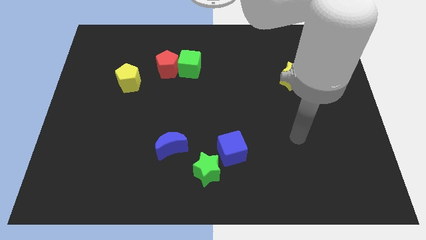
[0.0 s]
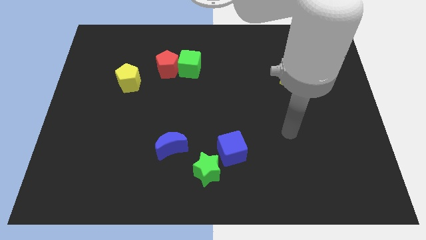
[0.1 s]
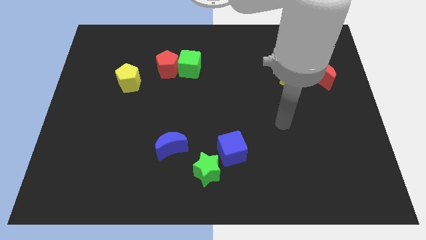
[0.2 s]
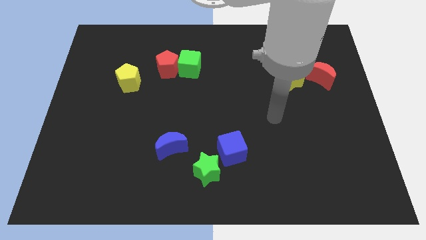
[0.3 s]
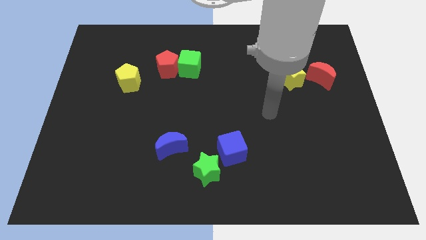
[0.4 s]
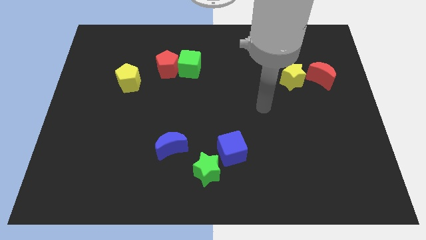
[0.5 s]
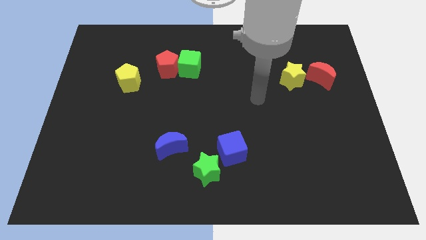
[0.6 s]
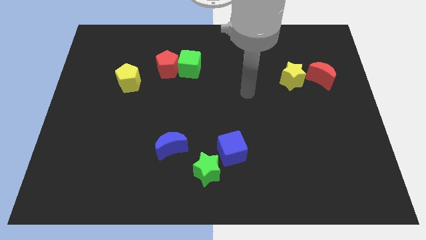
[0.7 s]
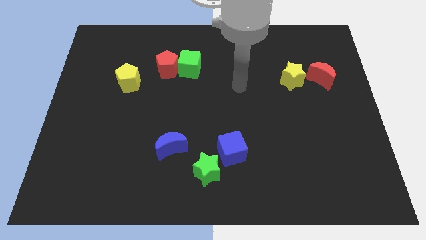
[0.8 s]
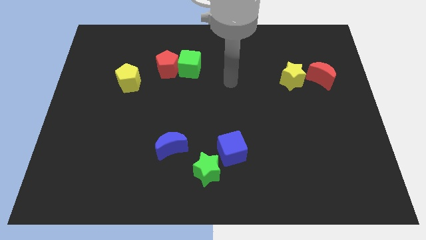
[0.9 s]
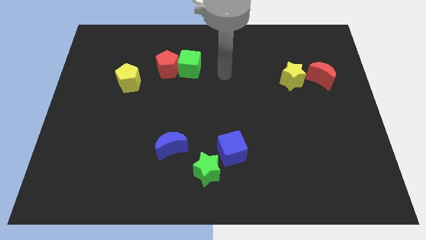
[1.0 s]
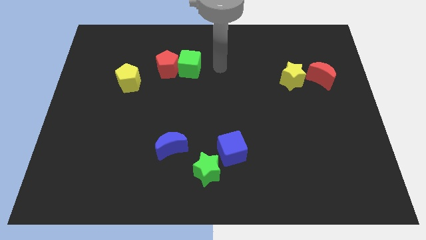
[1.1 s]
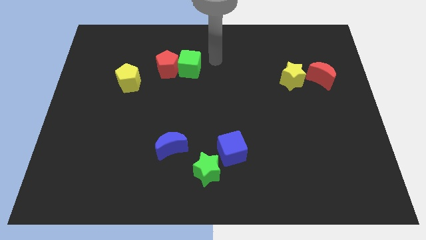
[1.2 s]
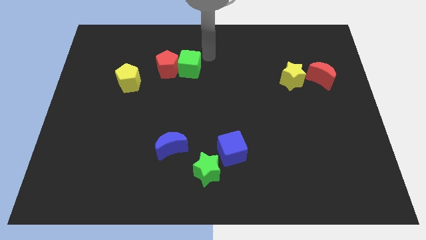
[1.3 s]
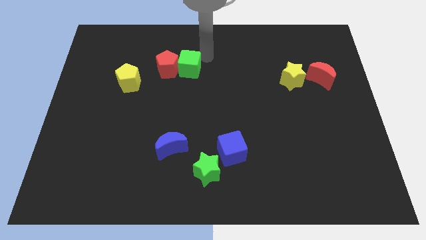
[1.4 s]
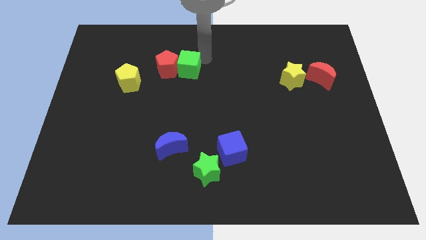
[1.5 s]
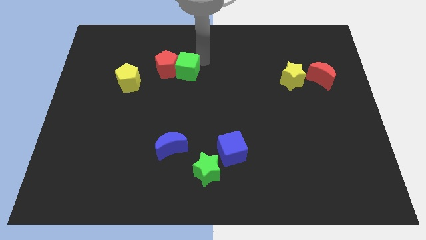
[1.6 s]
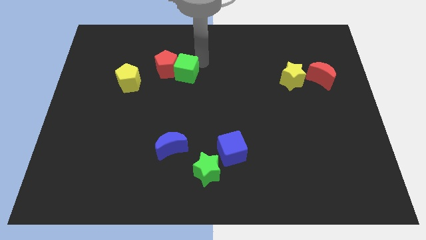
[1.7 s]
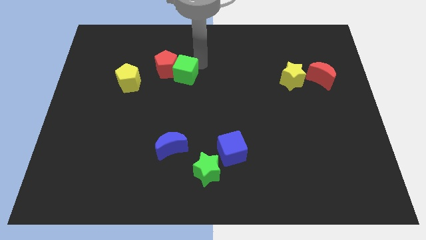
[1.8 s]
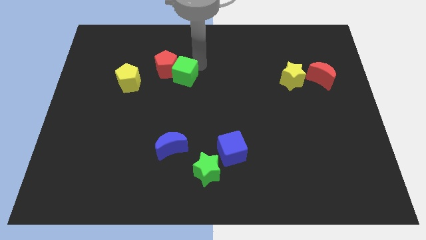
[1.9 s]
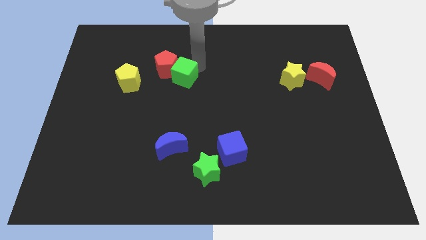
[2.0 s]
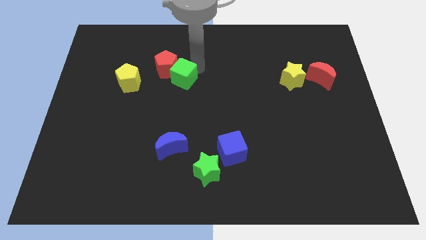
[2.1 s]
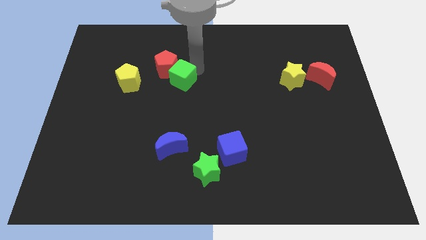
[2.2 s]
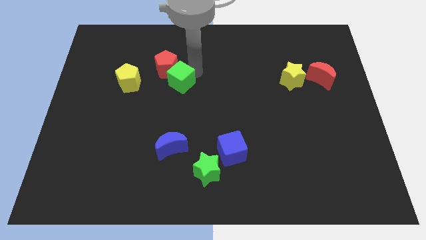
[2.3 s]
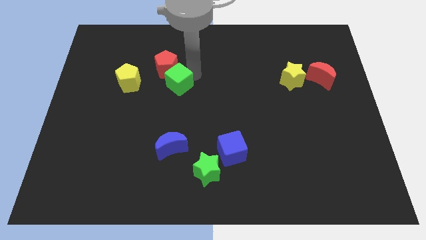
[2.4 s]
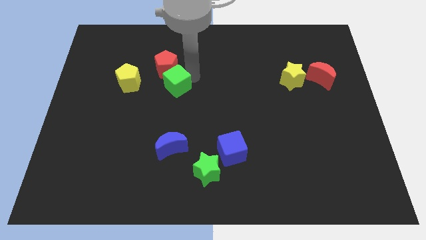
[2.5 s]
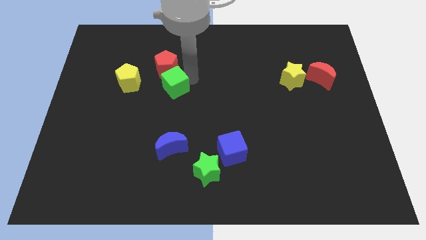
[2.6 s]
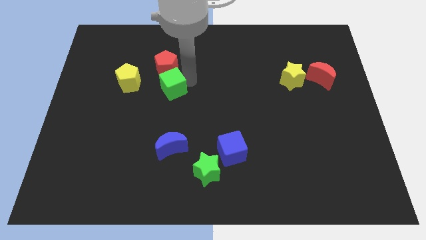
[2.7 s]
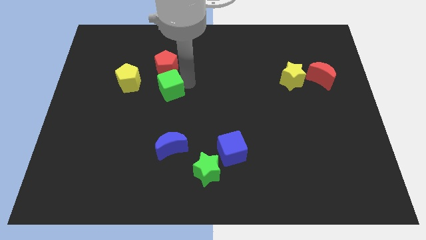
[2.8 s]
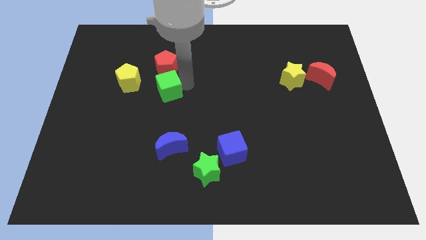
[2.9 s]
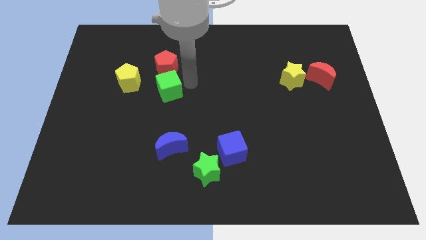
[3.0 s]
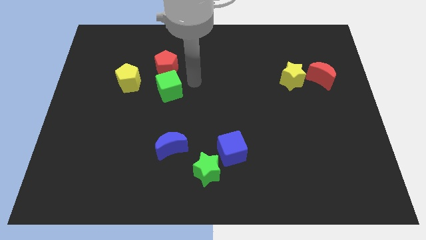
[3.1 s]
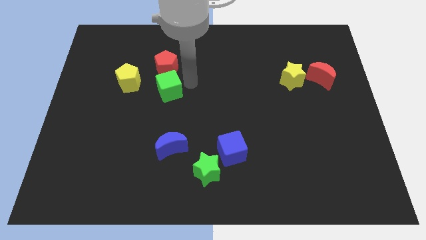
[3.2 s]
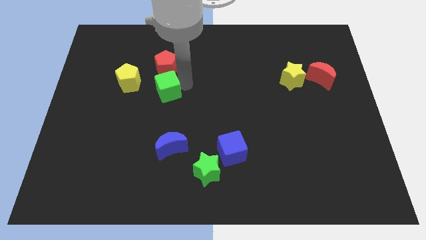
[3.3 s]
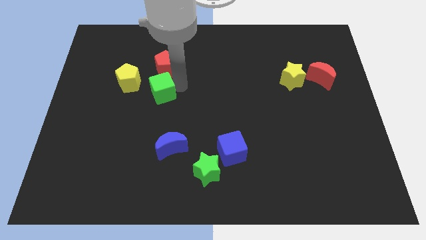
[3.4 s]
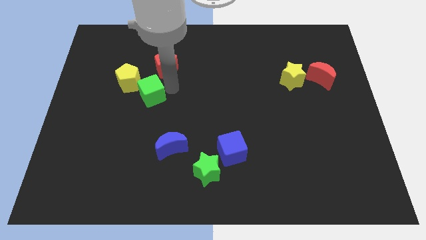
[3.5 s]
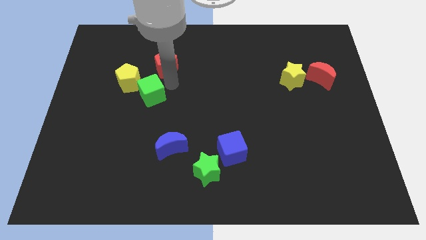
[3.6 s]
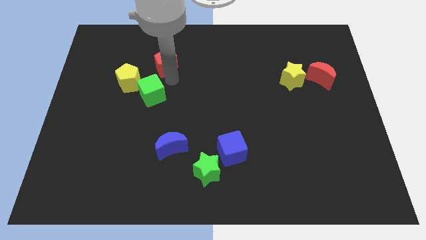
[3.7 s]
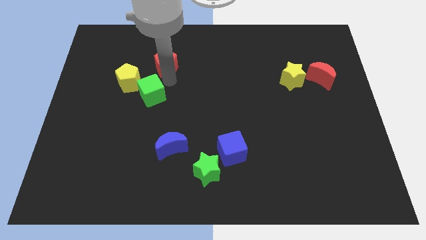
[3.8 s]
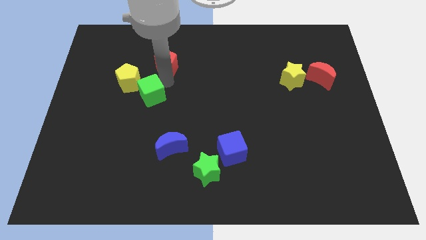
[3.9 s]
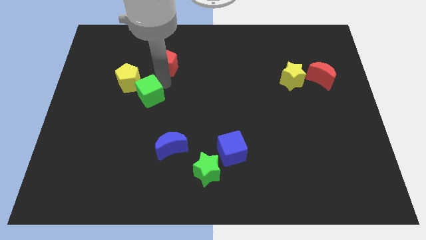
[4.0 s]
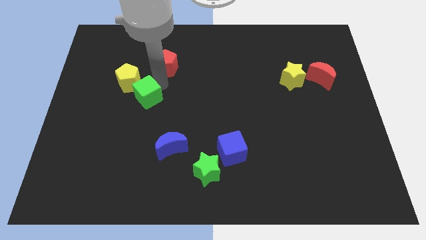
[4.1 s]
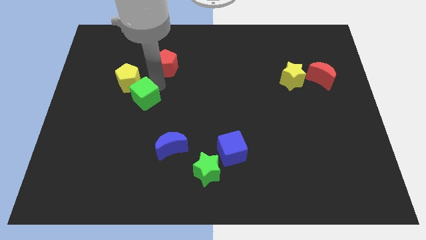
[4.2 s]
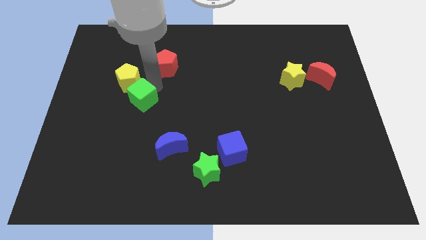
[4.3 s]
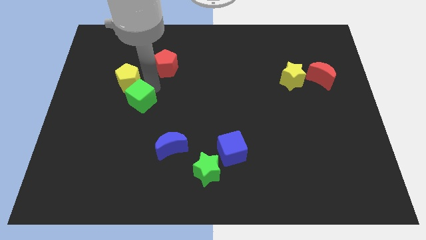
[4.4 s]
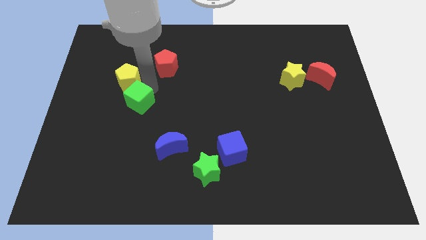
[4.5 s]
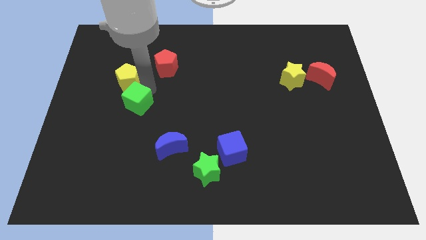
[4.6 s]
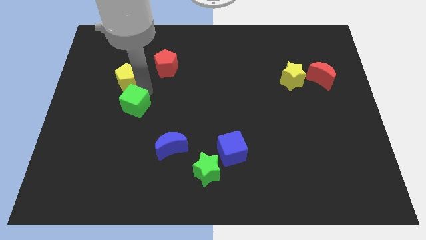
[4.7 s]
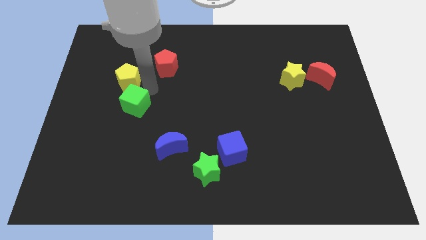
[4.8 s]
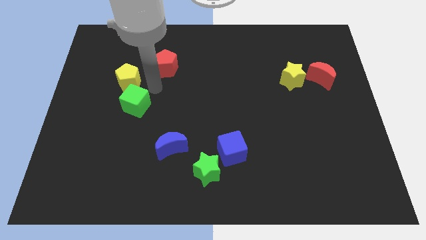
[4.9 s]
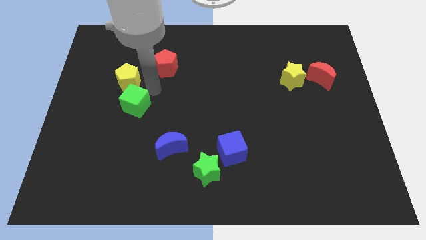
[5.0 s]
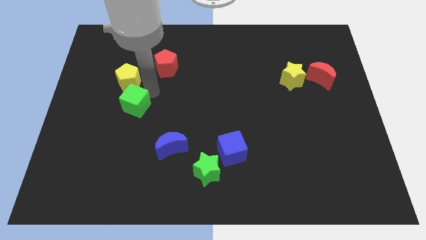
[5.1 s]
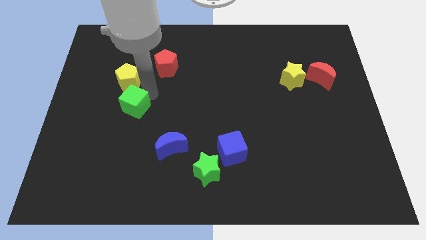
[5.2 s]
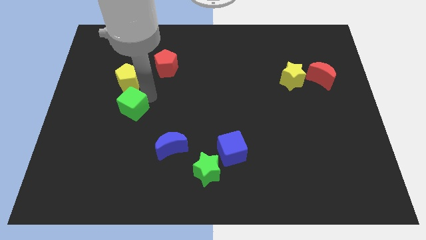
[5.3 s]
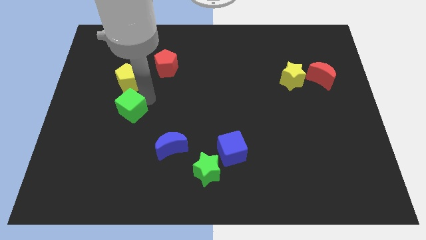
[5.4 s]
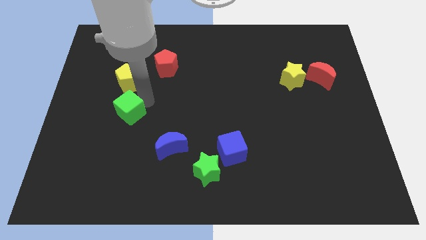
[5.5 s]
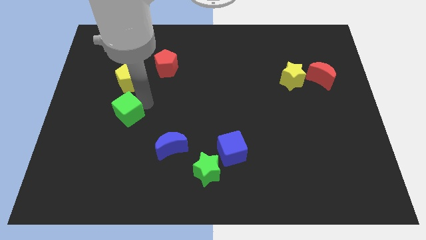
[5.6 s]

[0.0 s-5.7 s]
push the green cube down and to the left diagonally

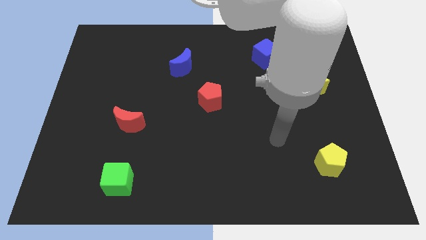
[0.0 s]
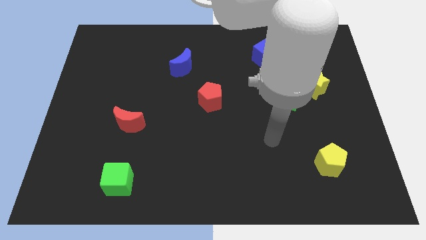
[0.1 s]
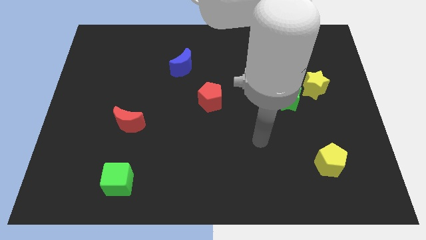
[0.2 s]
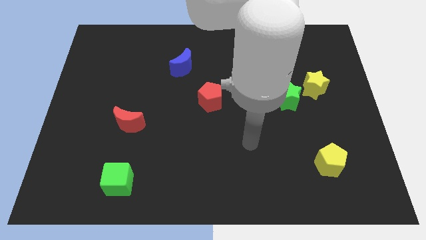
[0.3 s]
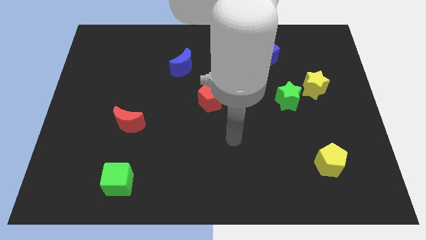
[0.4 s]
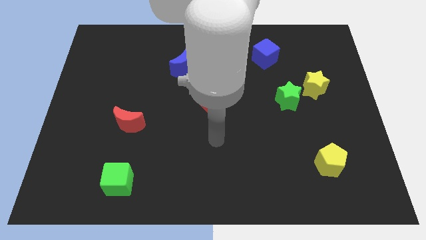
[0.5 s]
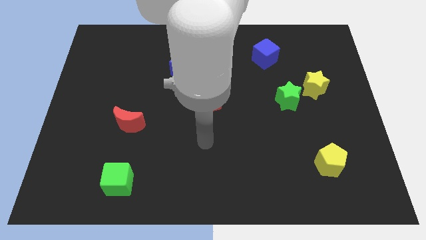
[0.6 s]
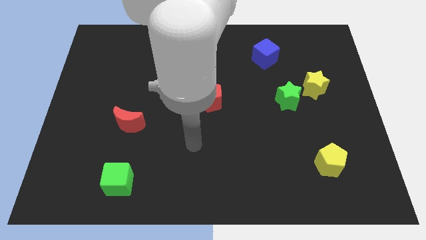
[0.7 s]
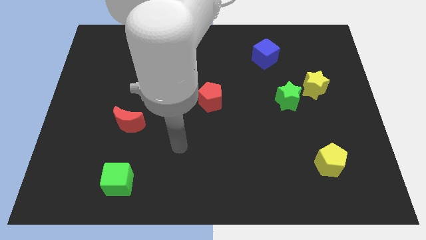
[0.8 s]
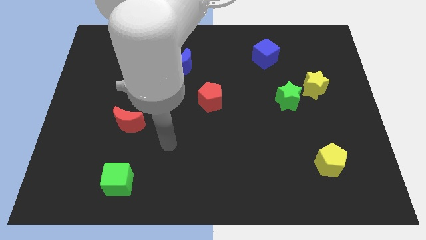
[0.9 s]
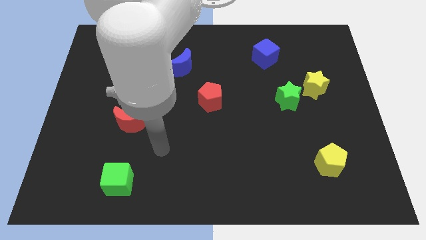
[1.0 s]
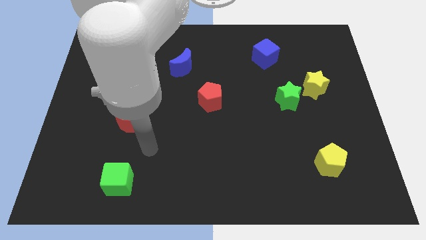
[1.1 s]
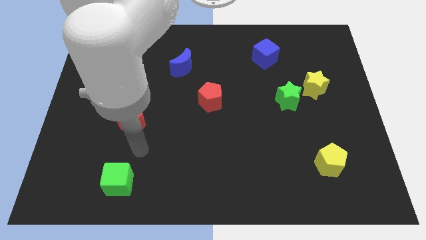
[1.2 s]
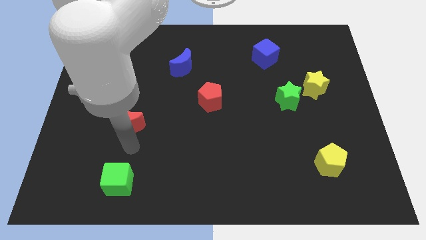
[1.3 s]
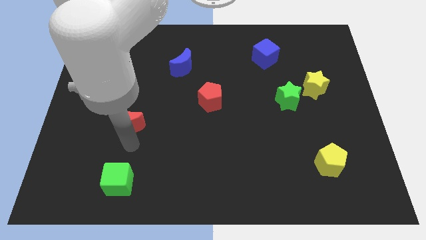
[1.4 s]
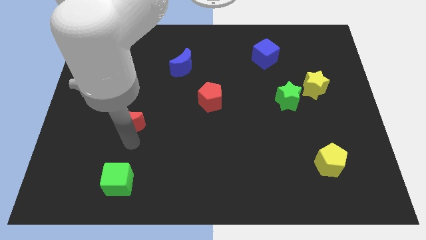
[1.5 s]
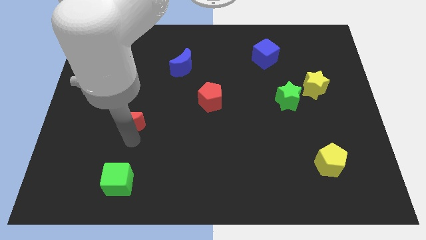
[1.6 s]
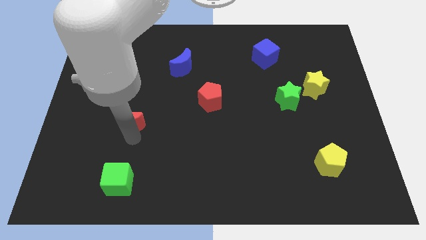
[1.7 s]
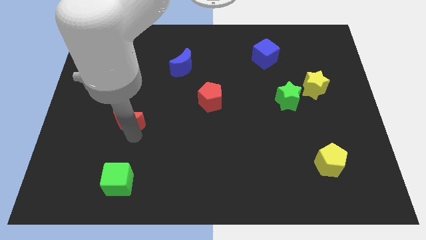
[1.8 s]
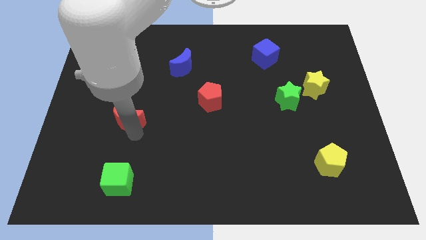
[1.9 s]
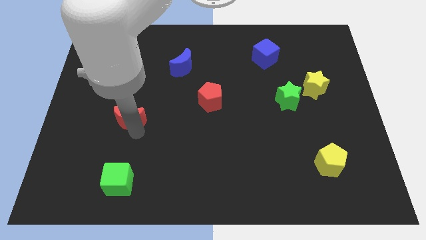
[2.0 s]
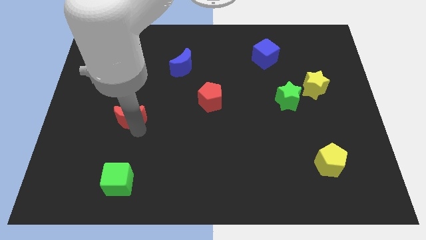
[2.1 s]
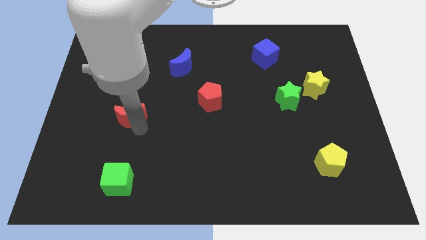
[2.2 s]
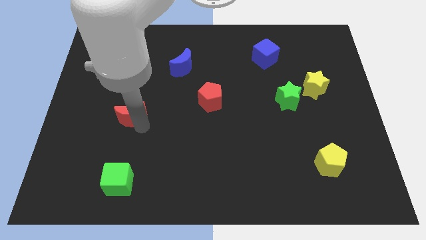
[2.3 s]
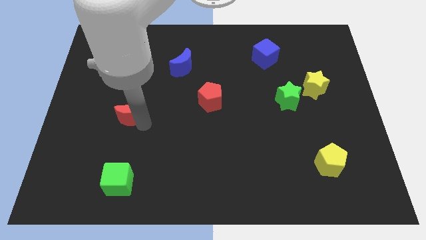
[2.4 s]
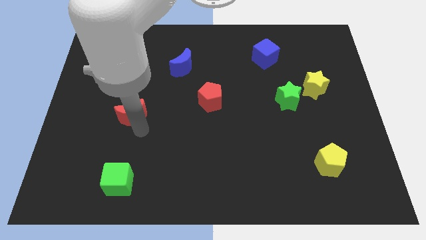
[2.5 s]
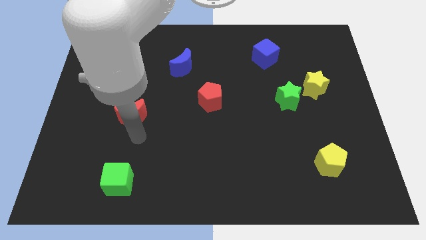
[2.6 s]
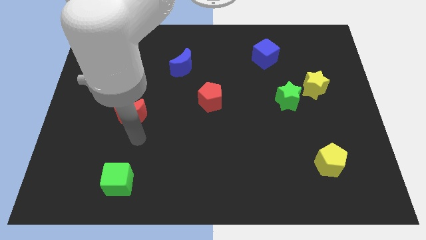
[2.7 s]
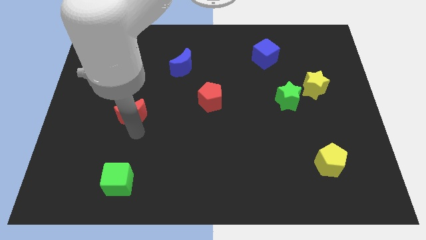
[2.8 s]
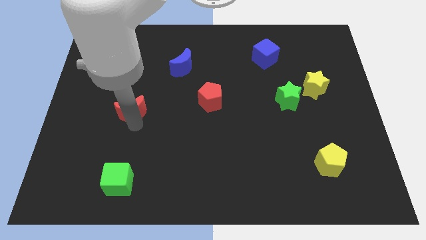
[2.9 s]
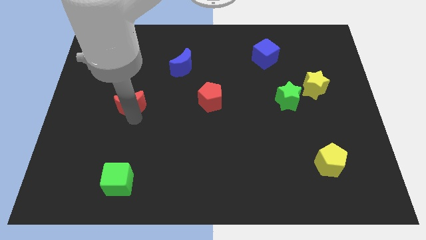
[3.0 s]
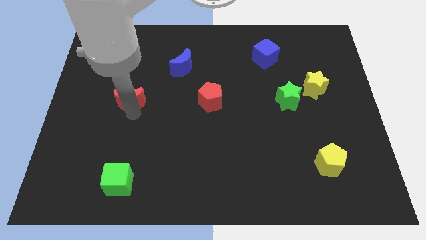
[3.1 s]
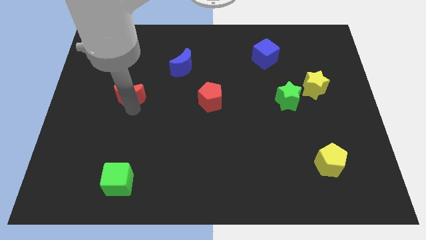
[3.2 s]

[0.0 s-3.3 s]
slightly move the red moon upwards
